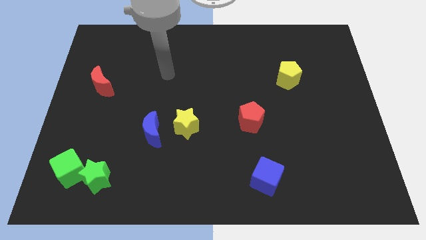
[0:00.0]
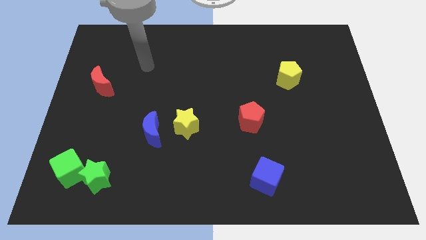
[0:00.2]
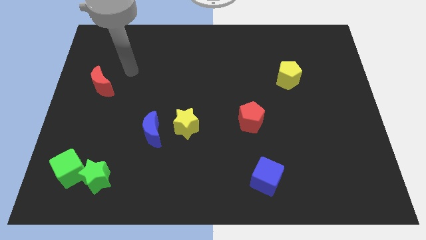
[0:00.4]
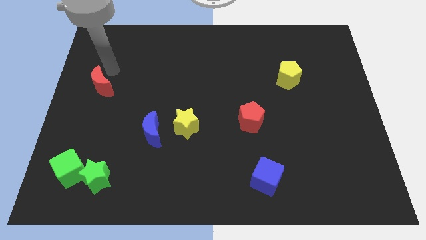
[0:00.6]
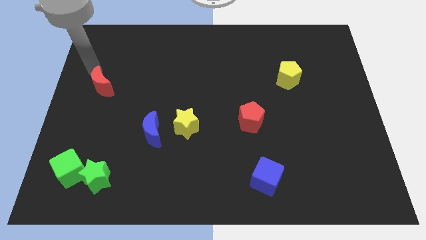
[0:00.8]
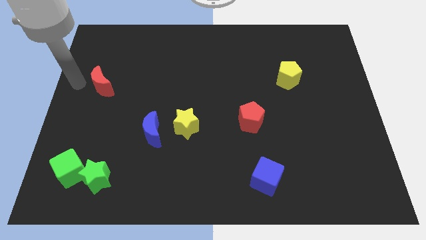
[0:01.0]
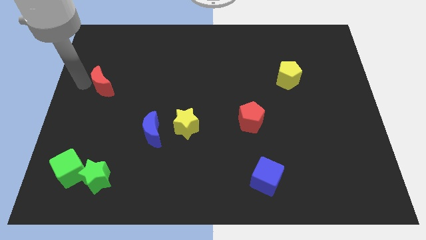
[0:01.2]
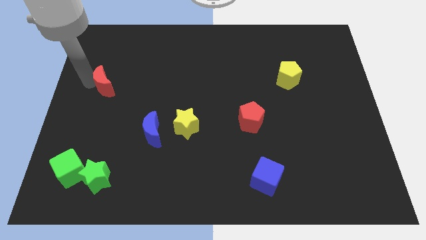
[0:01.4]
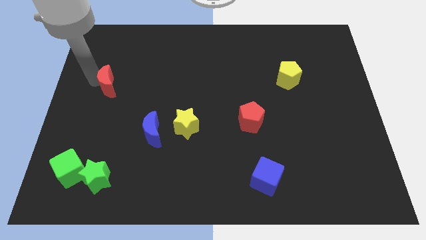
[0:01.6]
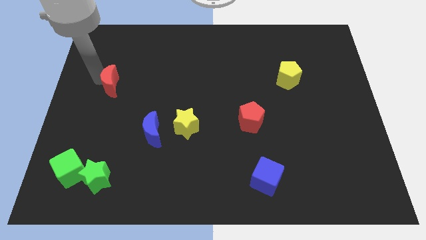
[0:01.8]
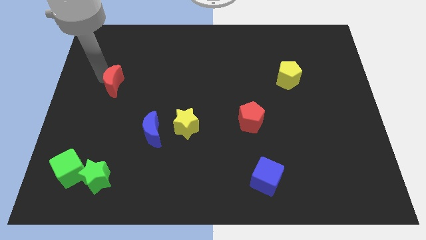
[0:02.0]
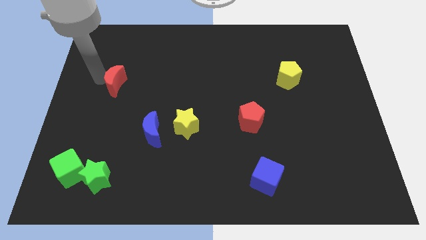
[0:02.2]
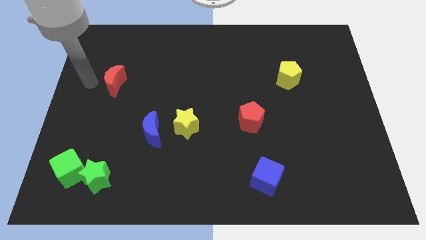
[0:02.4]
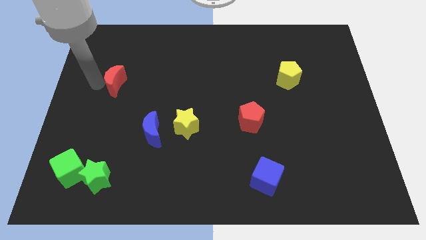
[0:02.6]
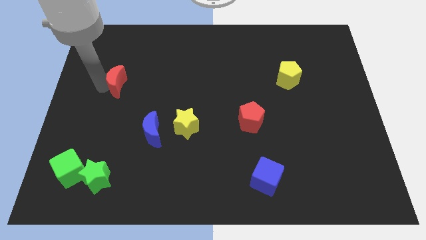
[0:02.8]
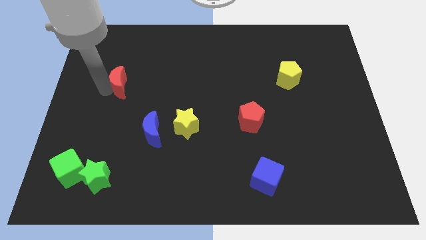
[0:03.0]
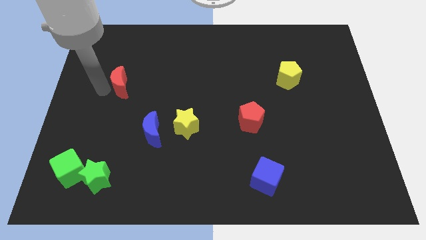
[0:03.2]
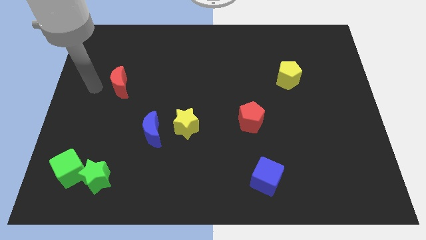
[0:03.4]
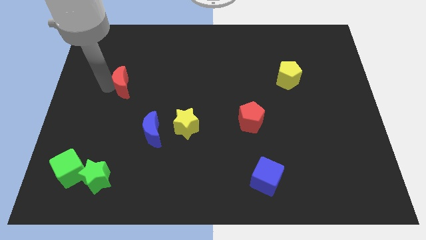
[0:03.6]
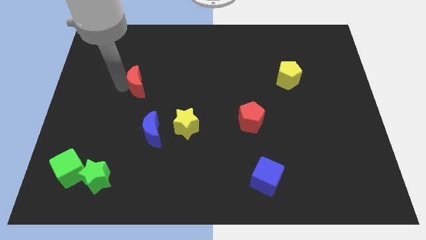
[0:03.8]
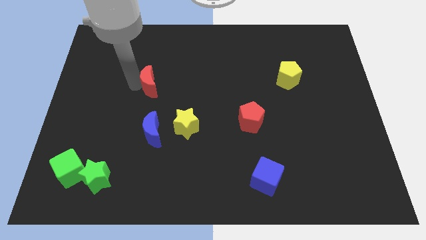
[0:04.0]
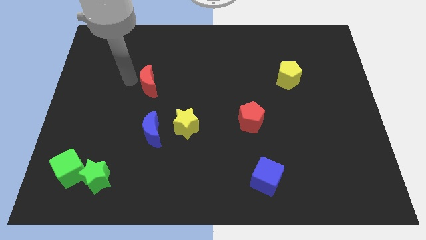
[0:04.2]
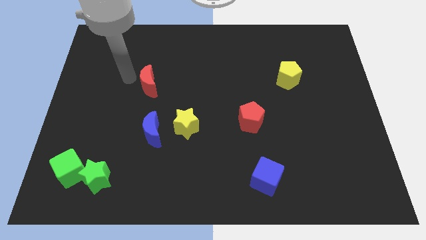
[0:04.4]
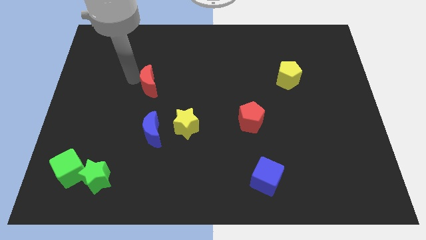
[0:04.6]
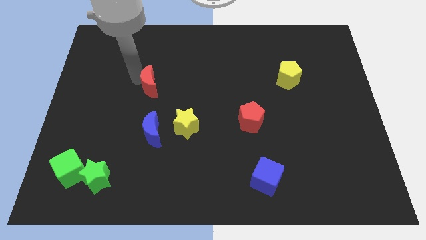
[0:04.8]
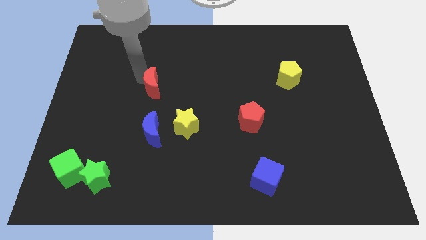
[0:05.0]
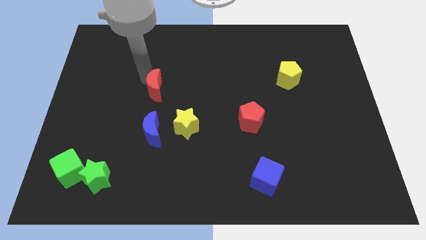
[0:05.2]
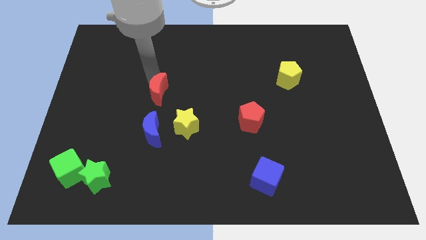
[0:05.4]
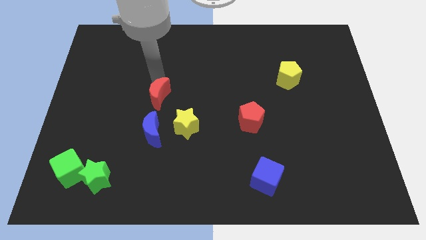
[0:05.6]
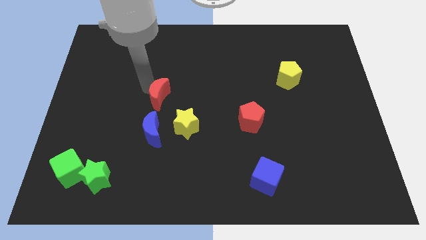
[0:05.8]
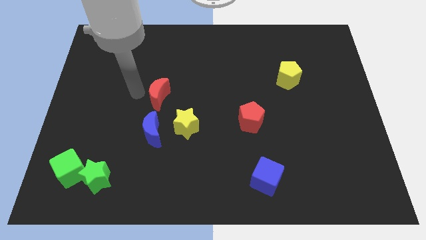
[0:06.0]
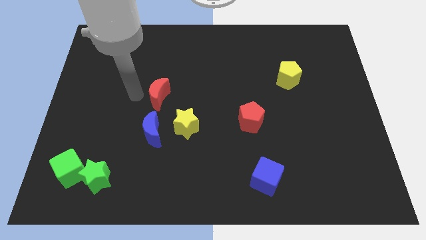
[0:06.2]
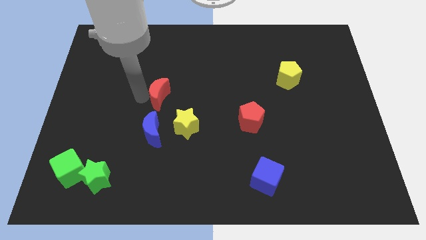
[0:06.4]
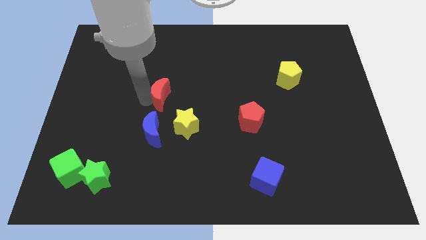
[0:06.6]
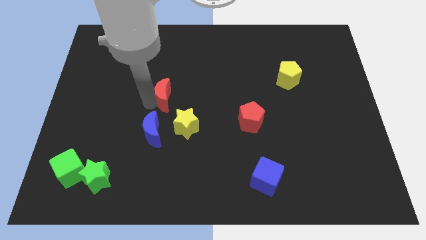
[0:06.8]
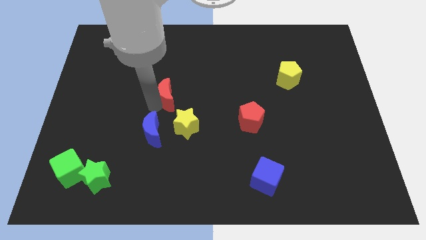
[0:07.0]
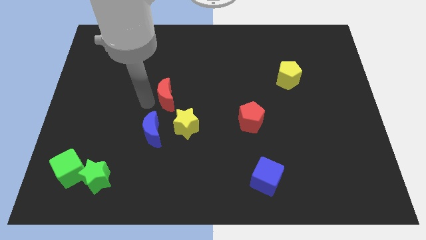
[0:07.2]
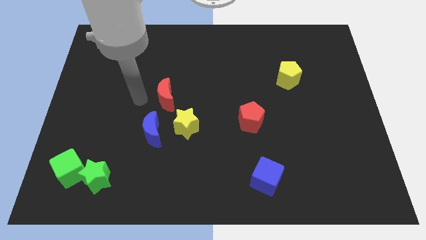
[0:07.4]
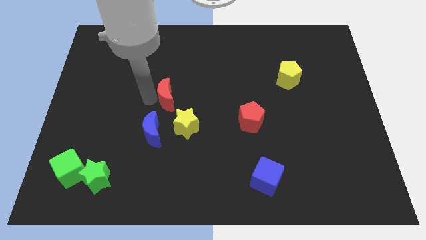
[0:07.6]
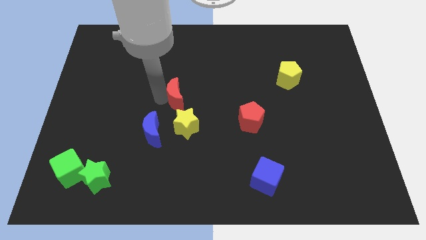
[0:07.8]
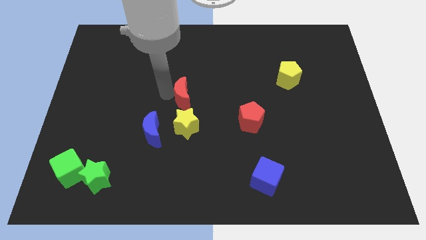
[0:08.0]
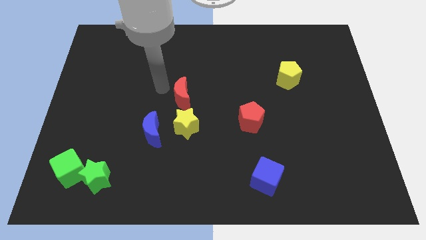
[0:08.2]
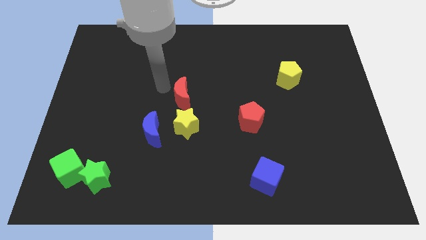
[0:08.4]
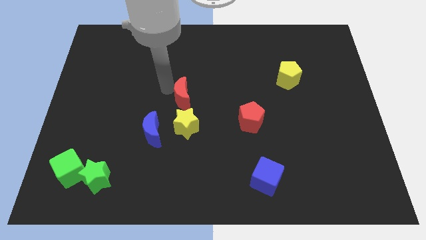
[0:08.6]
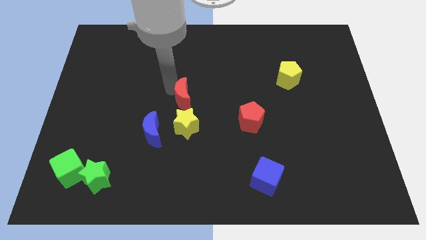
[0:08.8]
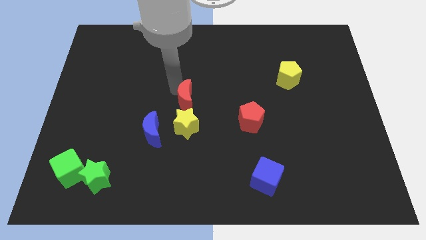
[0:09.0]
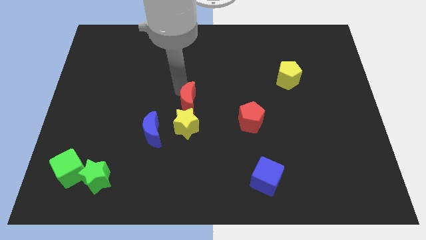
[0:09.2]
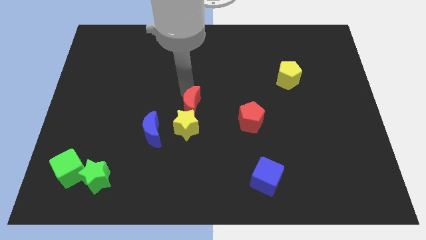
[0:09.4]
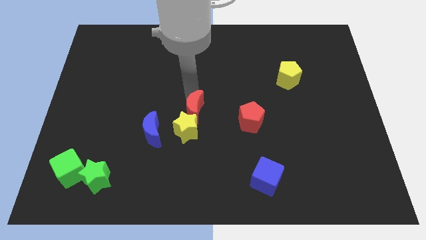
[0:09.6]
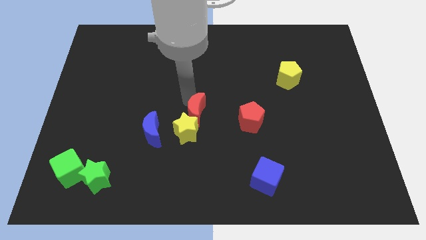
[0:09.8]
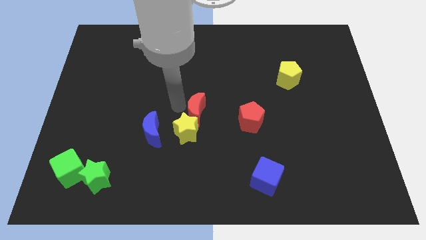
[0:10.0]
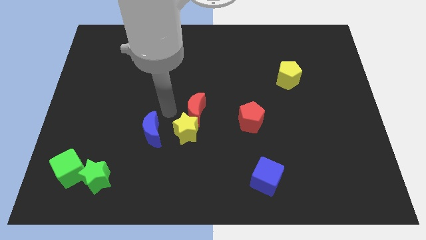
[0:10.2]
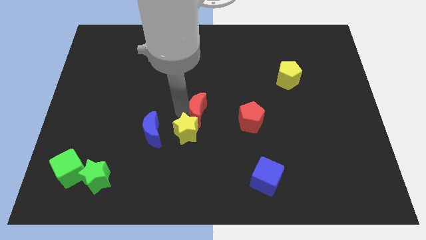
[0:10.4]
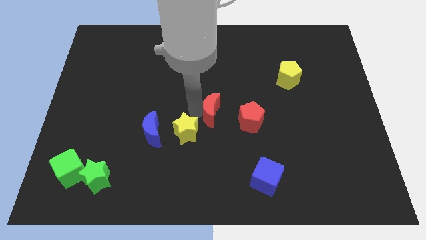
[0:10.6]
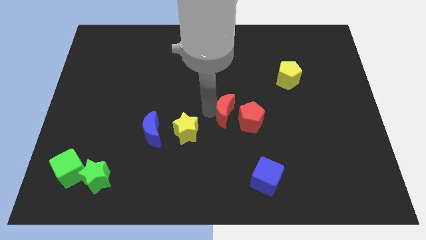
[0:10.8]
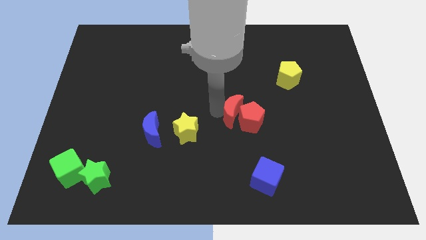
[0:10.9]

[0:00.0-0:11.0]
move the red moon close to the red pentagon

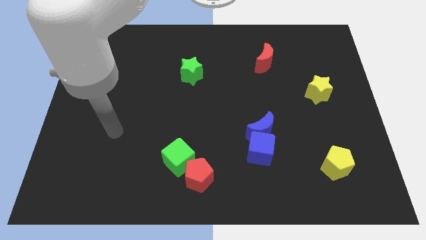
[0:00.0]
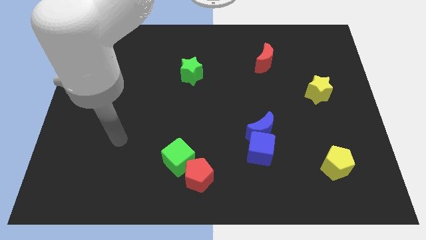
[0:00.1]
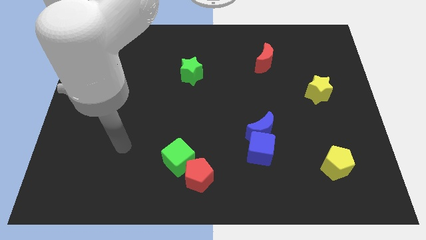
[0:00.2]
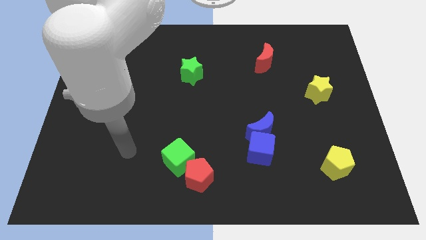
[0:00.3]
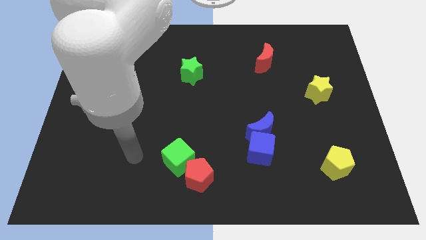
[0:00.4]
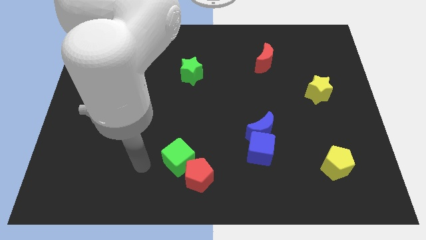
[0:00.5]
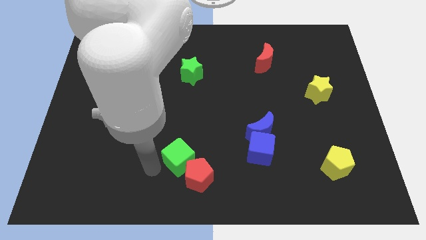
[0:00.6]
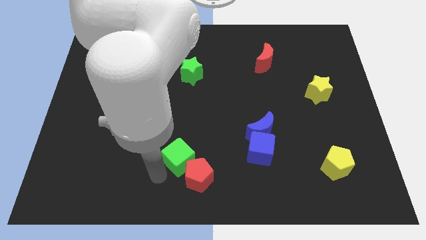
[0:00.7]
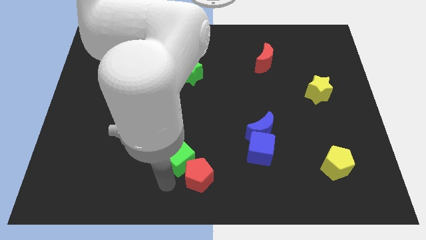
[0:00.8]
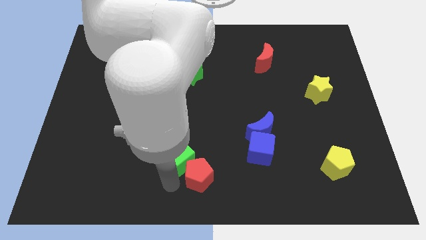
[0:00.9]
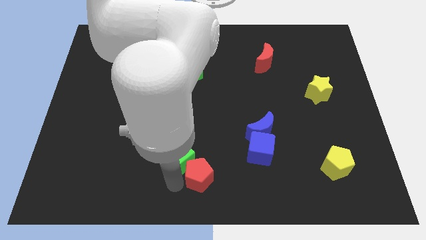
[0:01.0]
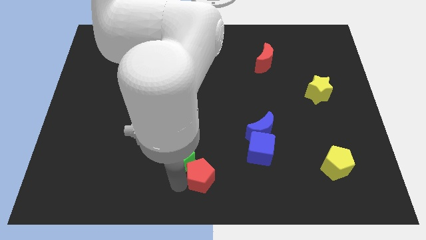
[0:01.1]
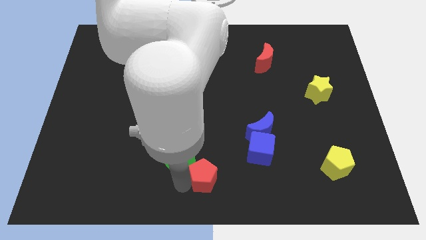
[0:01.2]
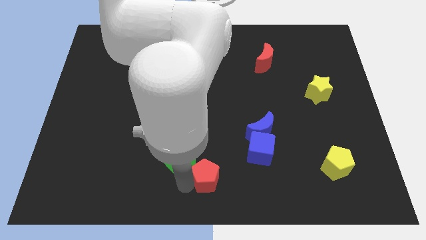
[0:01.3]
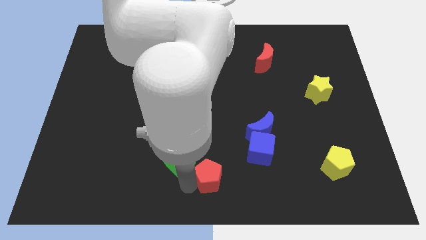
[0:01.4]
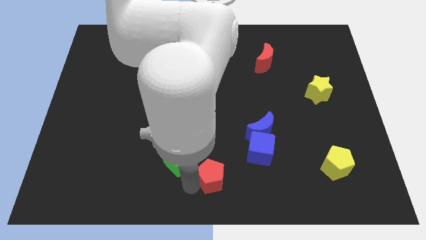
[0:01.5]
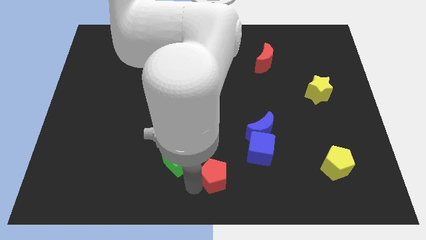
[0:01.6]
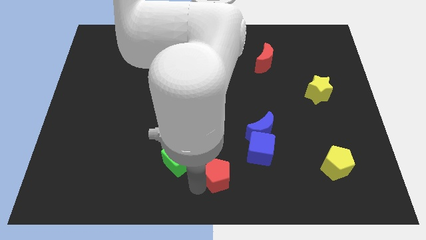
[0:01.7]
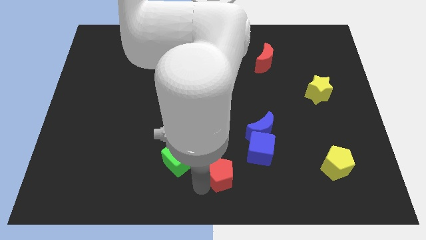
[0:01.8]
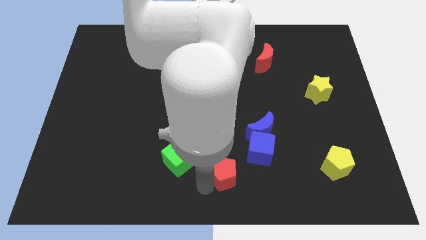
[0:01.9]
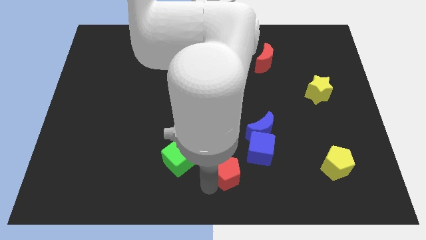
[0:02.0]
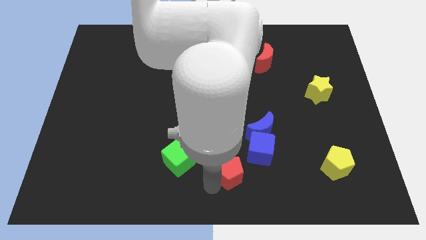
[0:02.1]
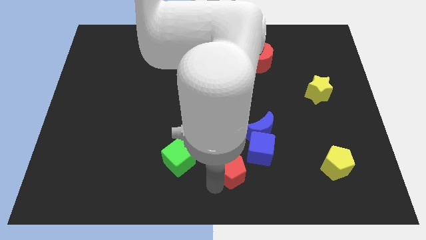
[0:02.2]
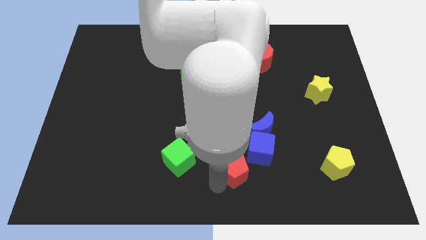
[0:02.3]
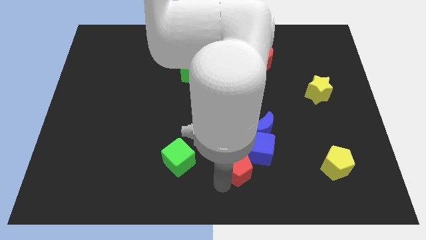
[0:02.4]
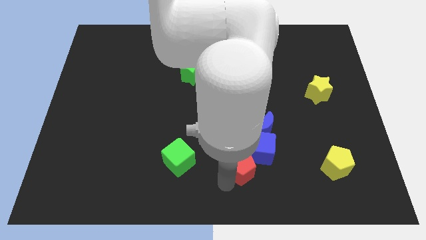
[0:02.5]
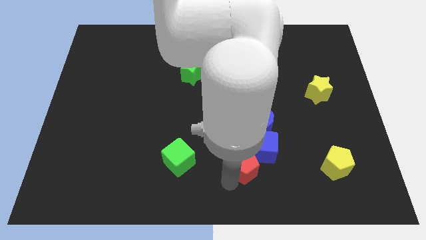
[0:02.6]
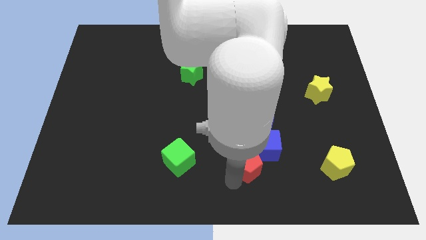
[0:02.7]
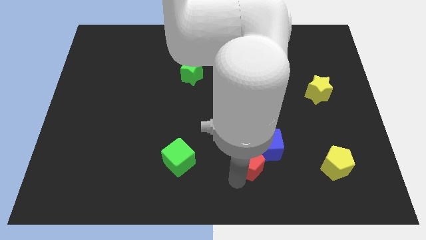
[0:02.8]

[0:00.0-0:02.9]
push the red pentagon close to the blue cube
